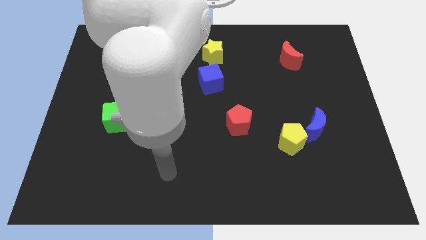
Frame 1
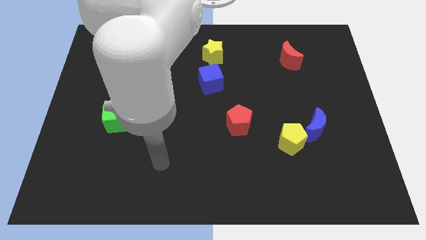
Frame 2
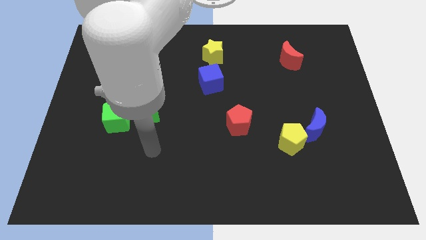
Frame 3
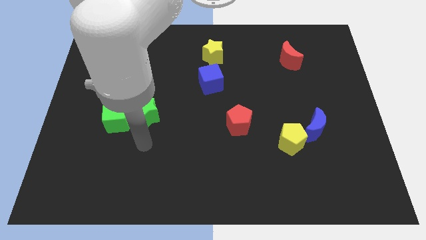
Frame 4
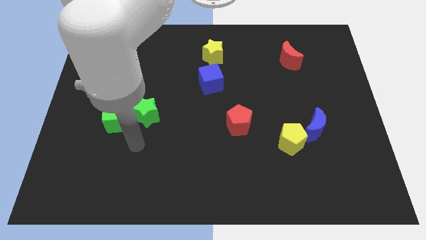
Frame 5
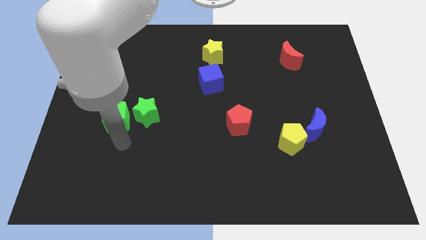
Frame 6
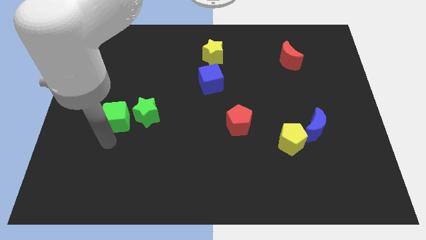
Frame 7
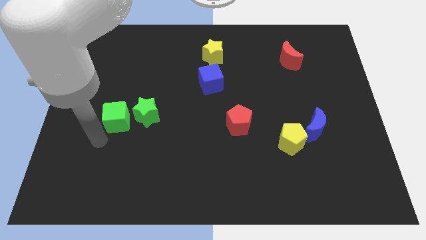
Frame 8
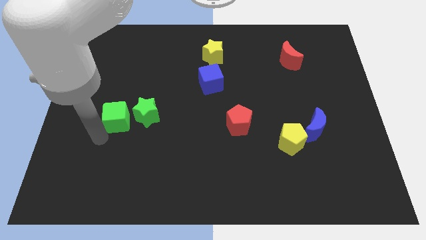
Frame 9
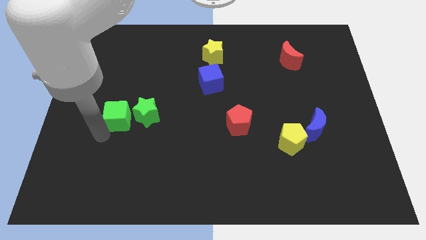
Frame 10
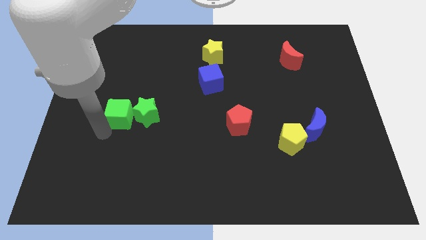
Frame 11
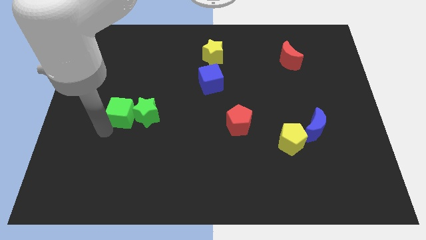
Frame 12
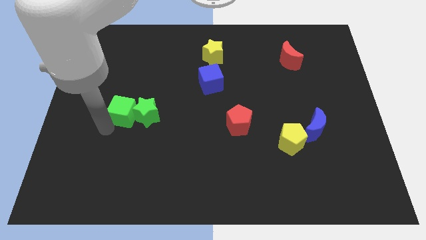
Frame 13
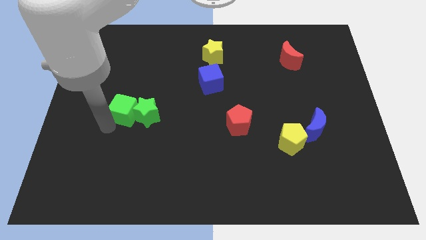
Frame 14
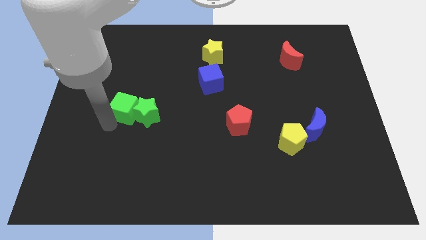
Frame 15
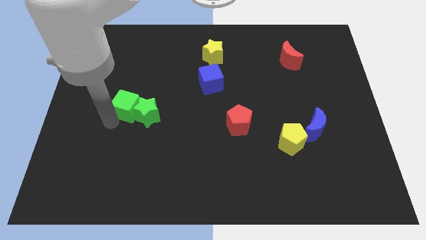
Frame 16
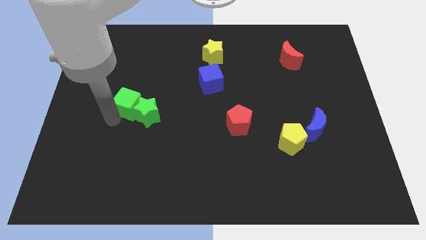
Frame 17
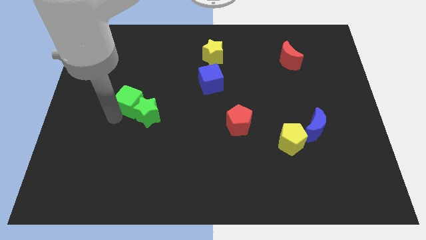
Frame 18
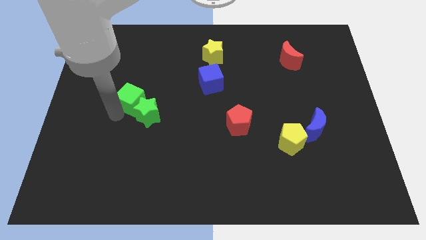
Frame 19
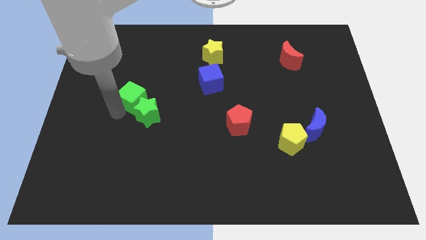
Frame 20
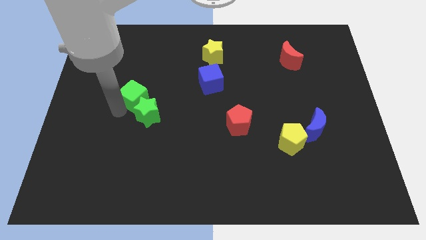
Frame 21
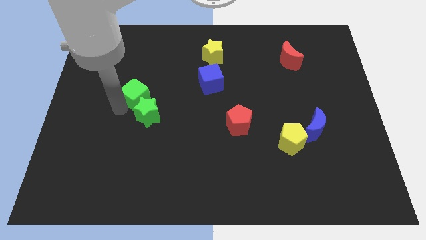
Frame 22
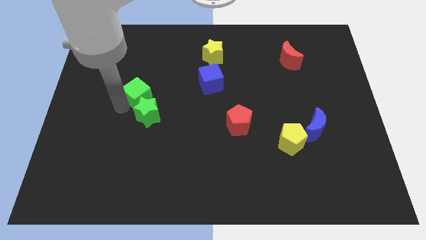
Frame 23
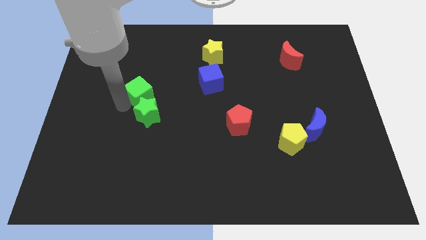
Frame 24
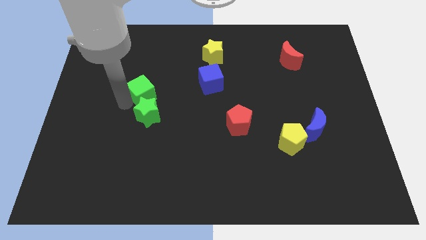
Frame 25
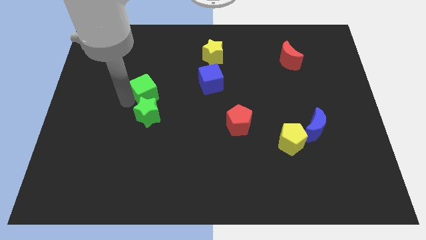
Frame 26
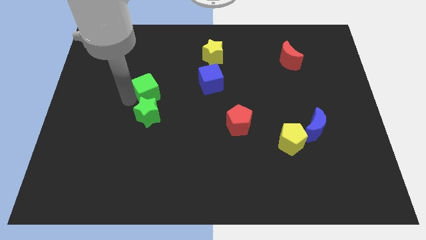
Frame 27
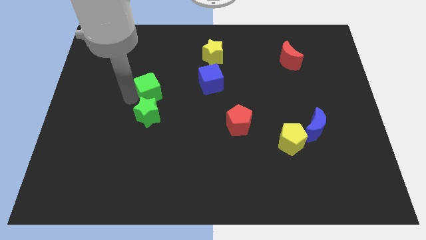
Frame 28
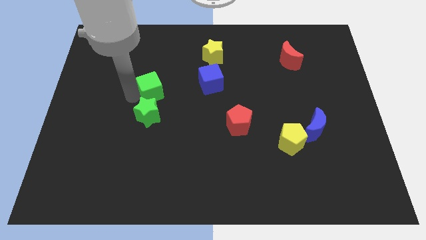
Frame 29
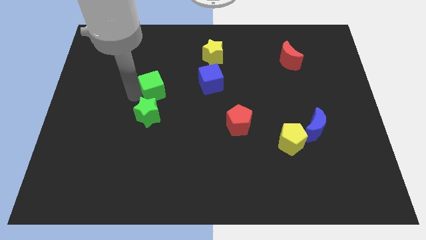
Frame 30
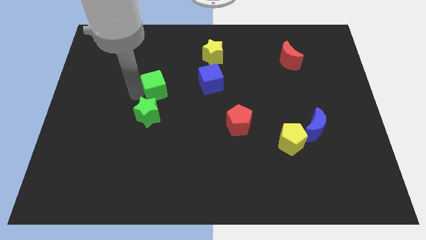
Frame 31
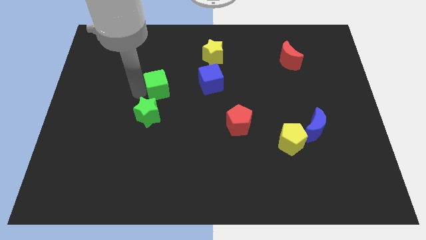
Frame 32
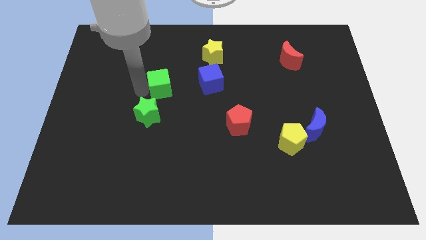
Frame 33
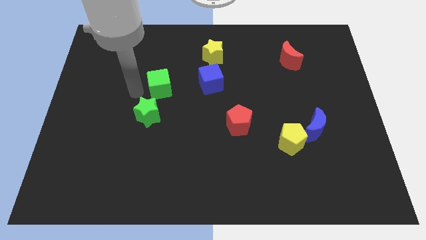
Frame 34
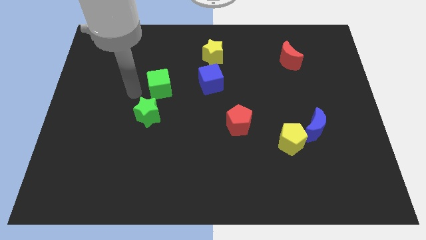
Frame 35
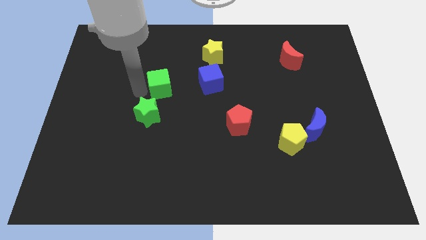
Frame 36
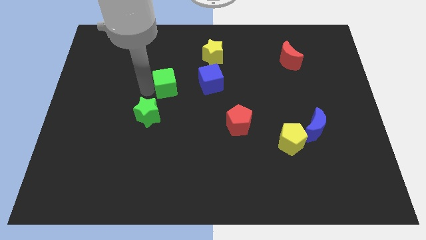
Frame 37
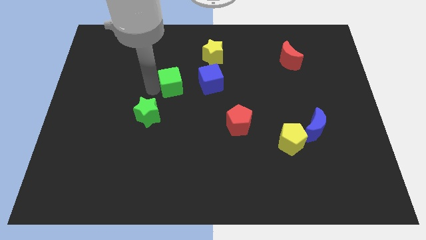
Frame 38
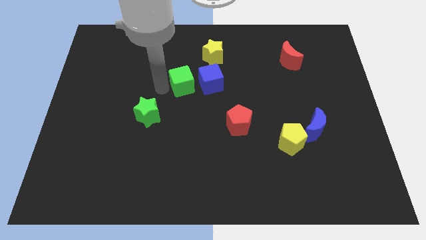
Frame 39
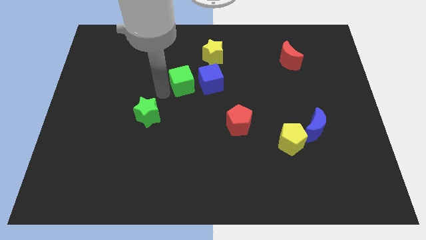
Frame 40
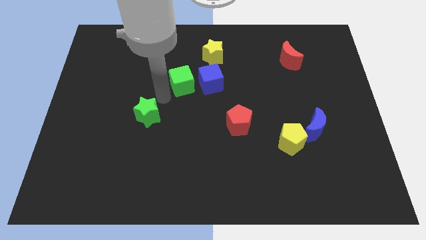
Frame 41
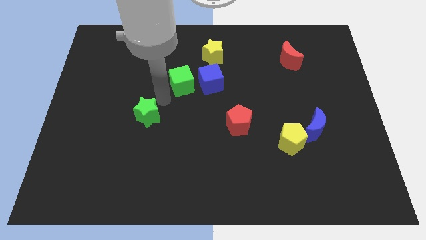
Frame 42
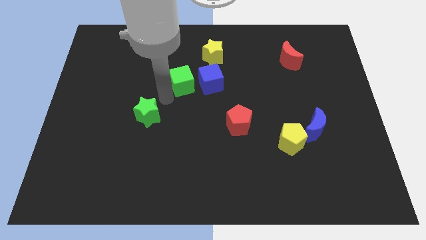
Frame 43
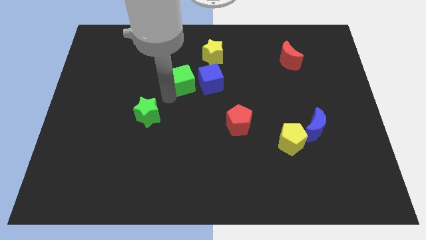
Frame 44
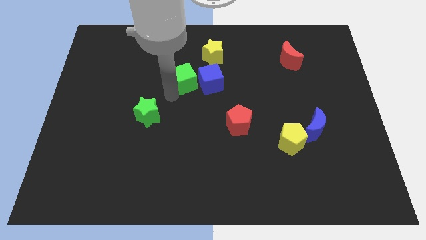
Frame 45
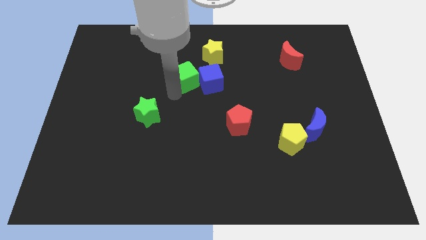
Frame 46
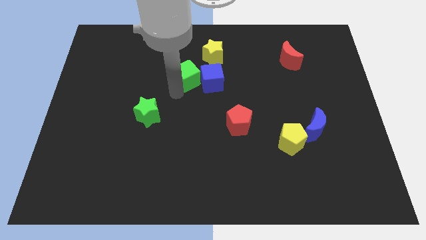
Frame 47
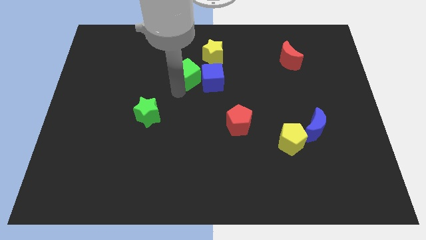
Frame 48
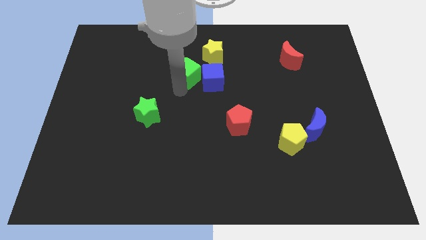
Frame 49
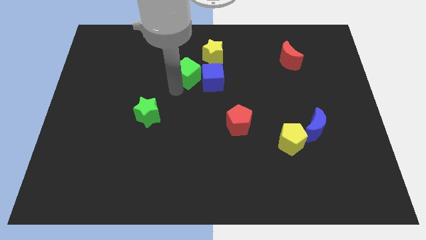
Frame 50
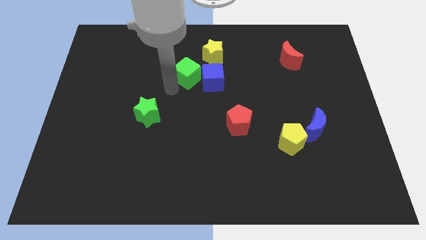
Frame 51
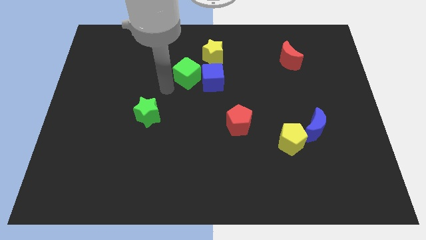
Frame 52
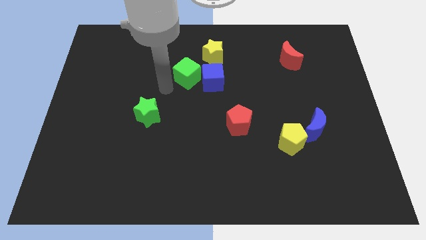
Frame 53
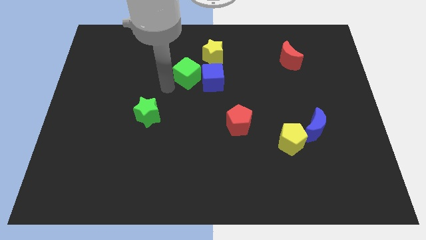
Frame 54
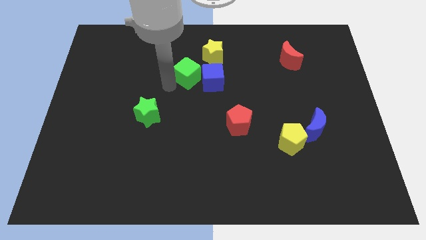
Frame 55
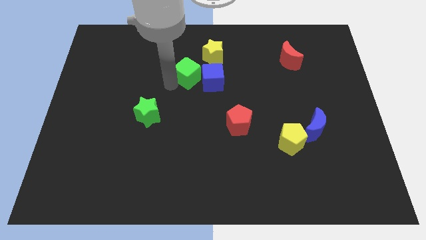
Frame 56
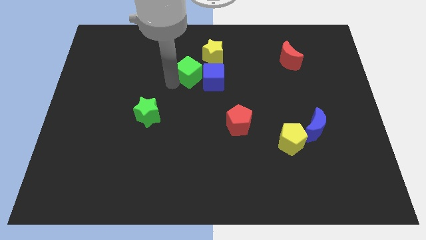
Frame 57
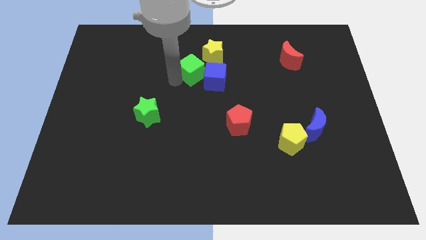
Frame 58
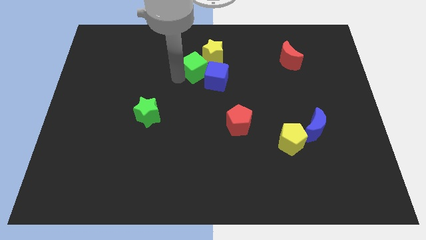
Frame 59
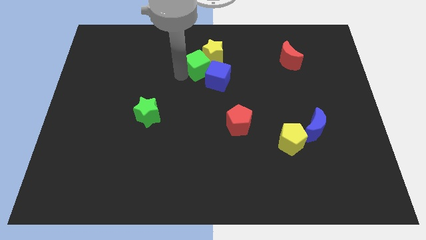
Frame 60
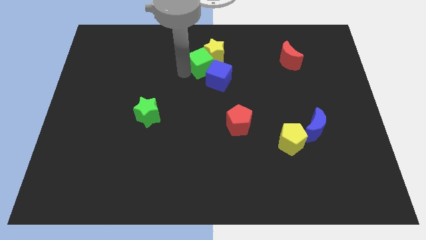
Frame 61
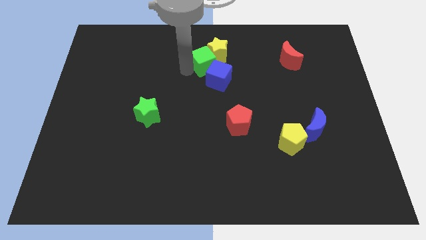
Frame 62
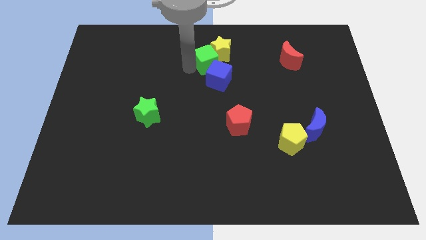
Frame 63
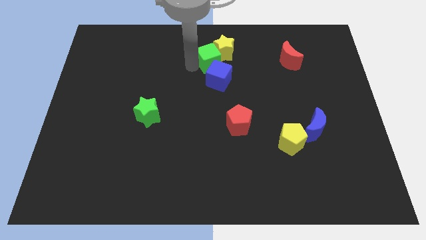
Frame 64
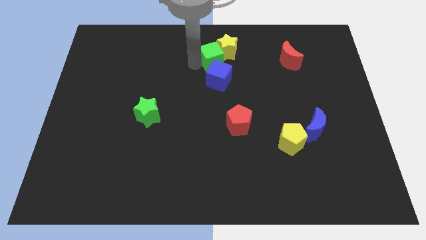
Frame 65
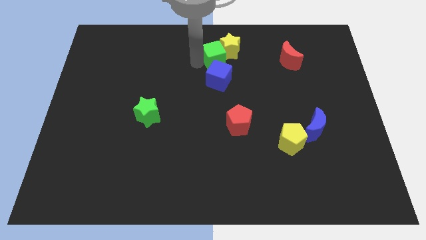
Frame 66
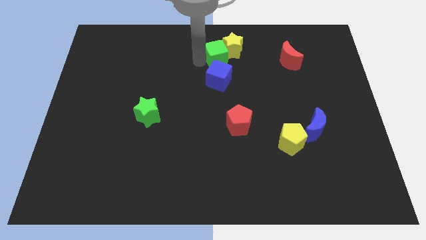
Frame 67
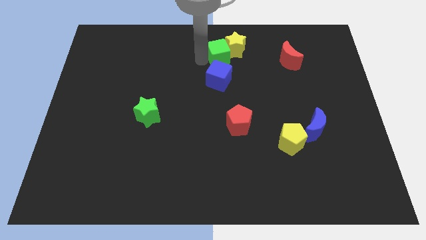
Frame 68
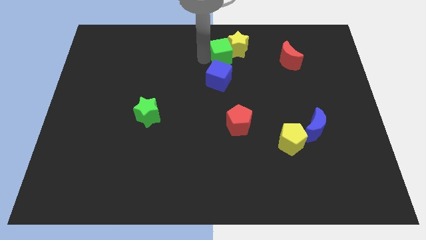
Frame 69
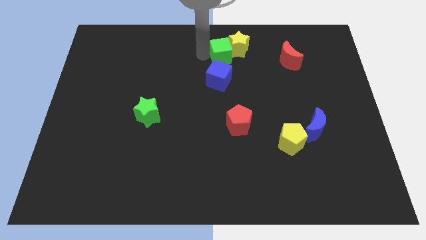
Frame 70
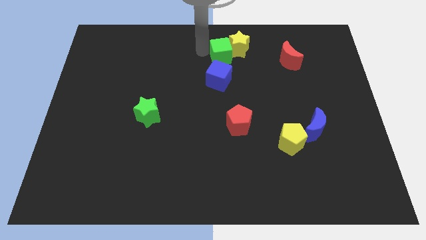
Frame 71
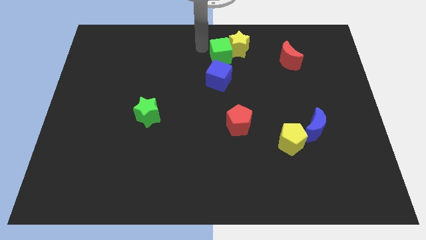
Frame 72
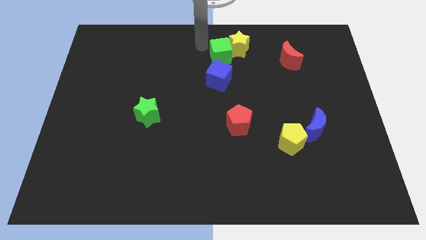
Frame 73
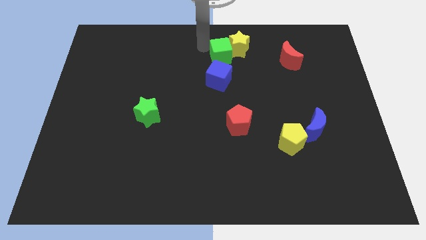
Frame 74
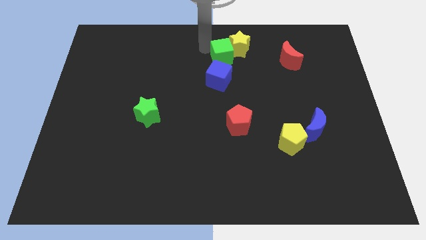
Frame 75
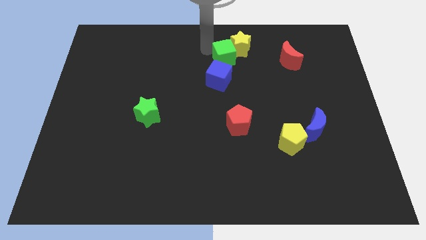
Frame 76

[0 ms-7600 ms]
put the green cube diagonally up and to the right of the blue cube
